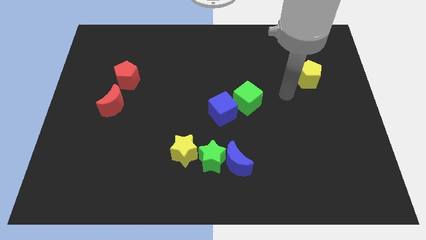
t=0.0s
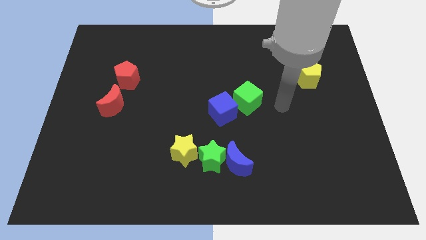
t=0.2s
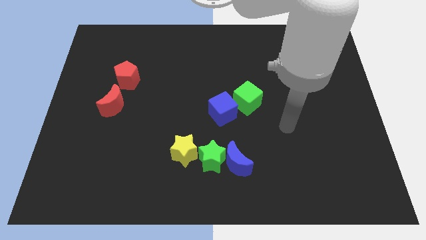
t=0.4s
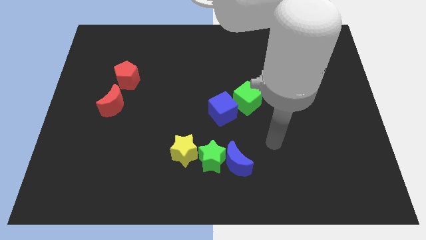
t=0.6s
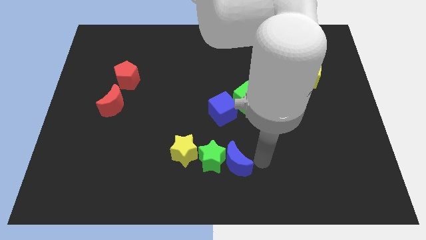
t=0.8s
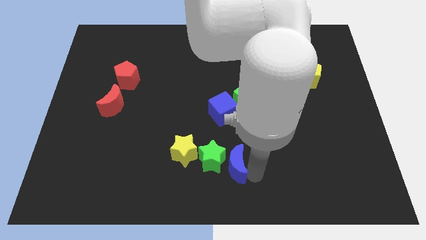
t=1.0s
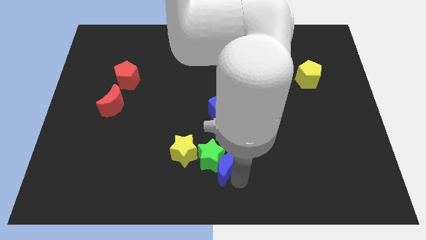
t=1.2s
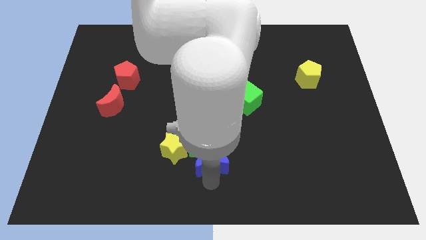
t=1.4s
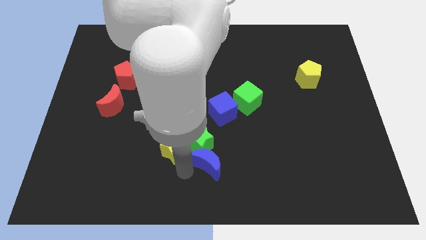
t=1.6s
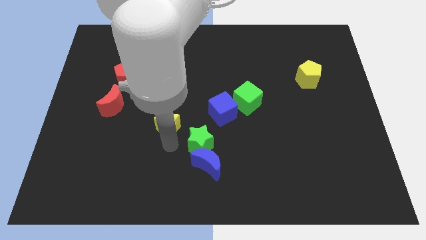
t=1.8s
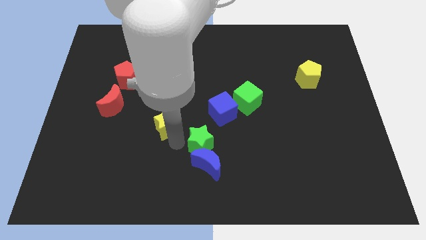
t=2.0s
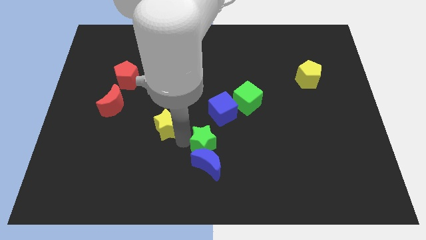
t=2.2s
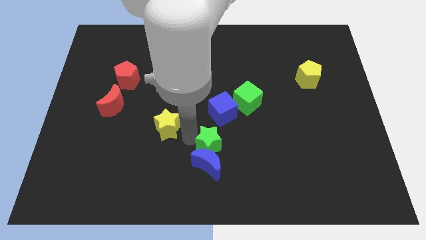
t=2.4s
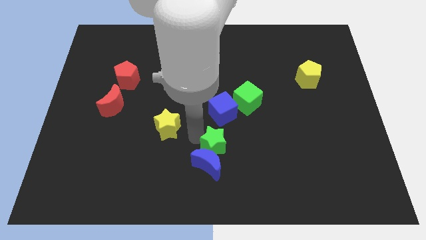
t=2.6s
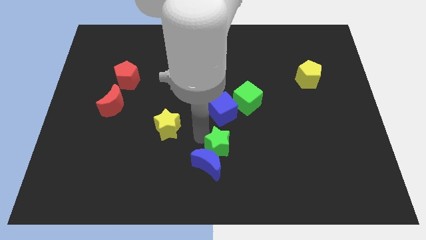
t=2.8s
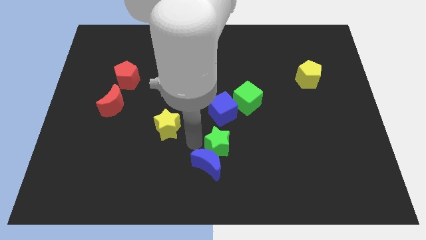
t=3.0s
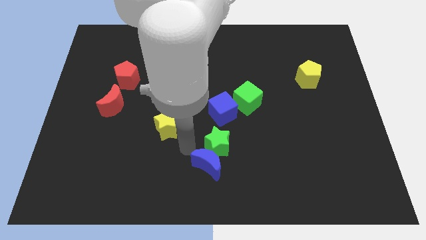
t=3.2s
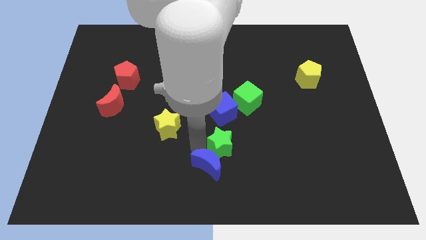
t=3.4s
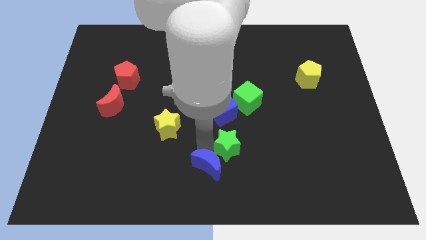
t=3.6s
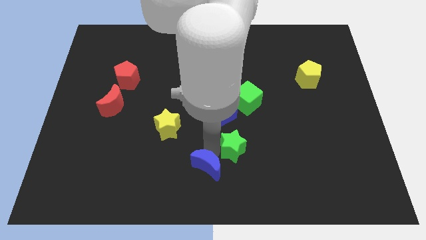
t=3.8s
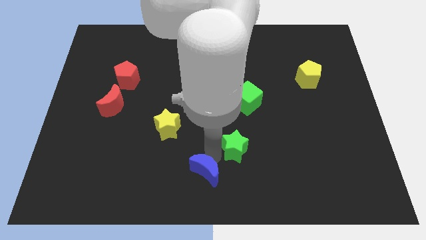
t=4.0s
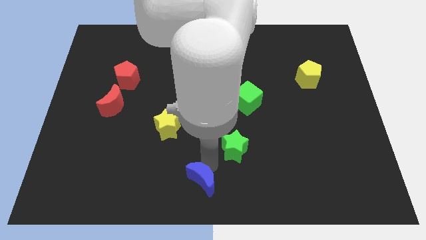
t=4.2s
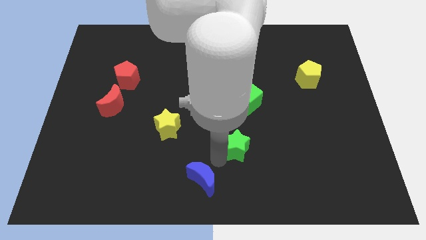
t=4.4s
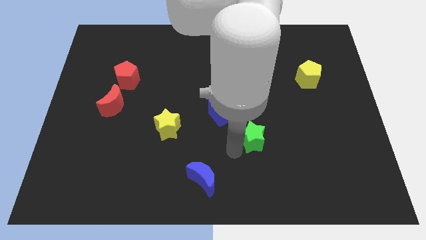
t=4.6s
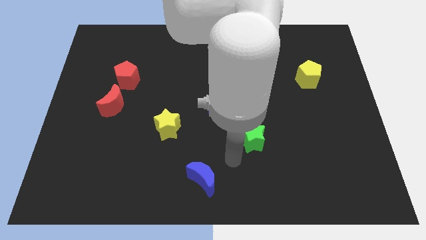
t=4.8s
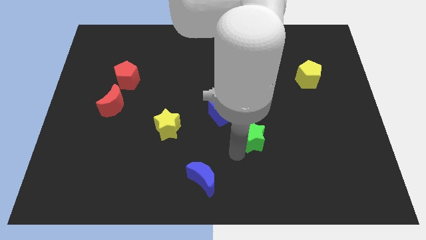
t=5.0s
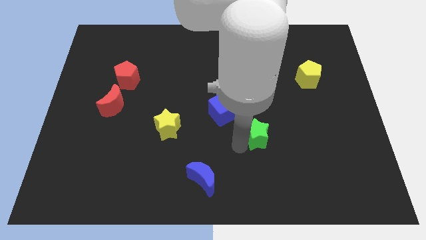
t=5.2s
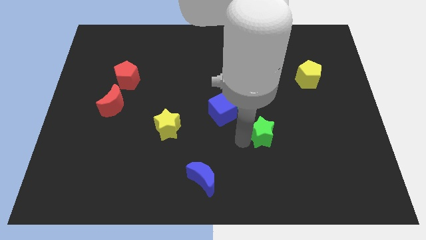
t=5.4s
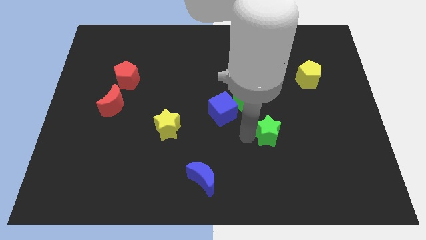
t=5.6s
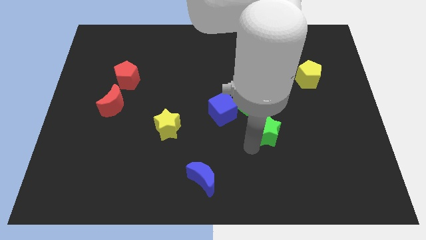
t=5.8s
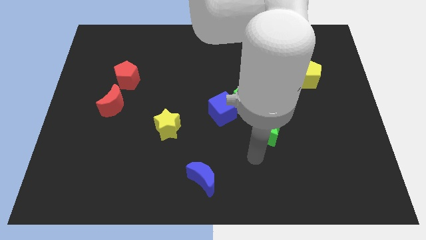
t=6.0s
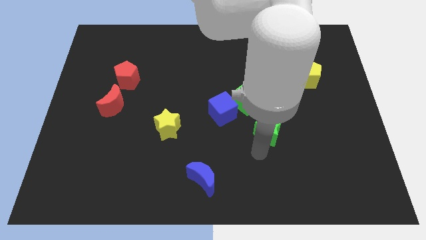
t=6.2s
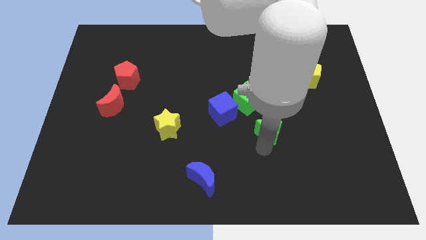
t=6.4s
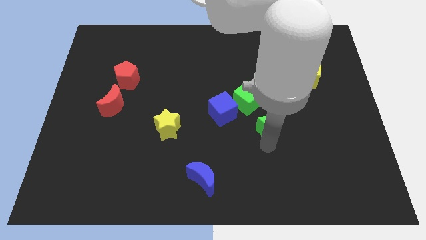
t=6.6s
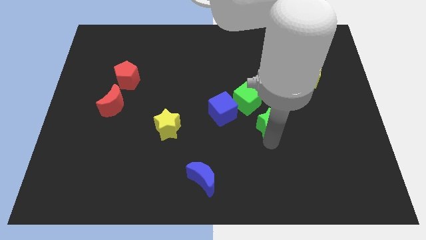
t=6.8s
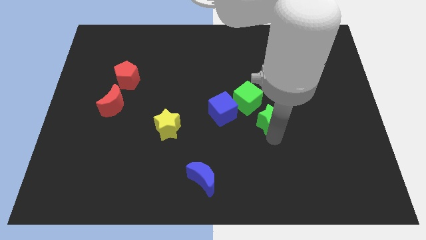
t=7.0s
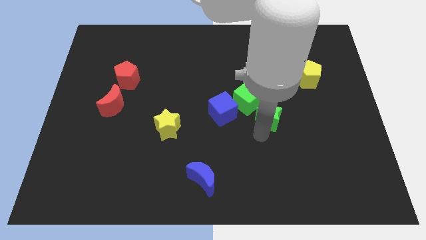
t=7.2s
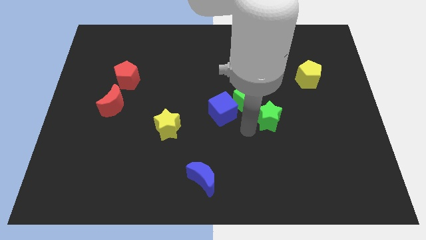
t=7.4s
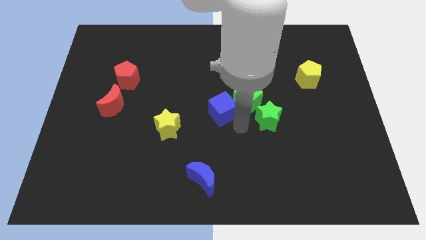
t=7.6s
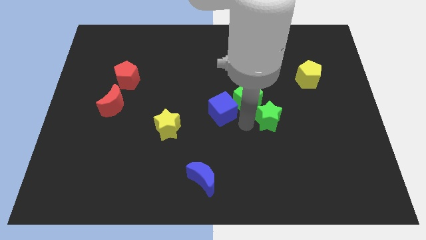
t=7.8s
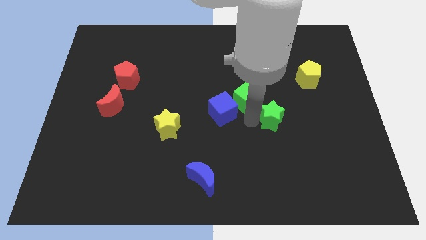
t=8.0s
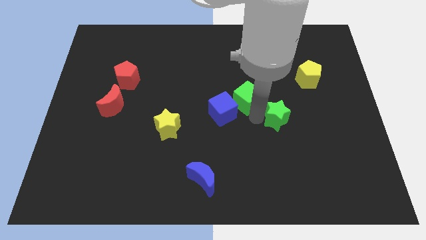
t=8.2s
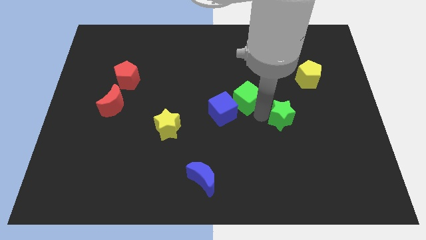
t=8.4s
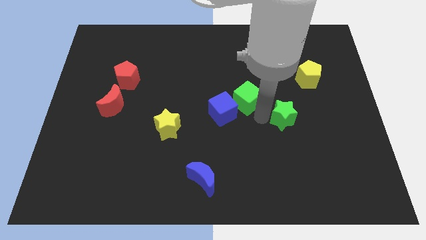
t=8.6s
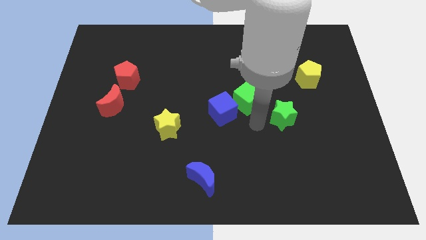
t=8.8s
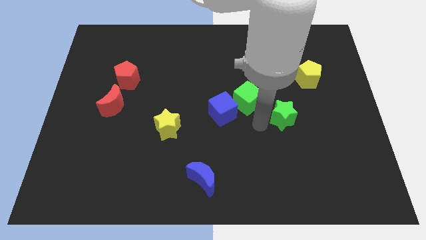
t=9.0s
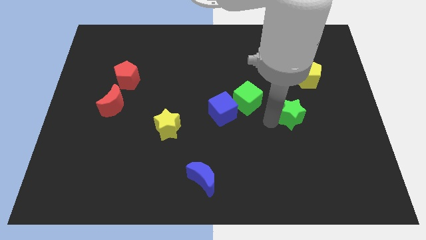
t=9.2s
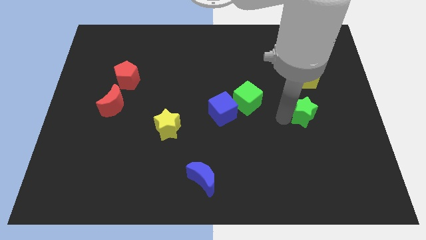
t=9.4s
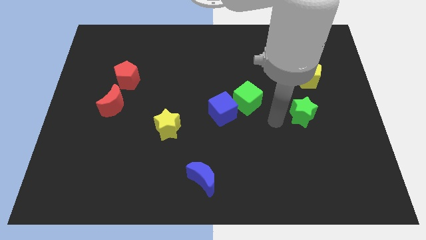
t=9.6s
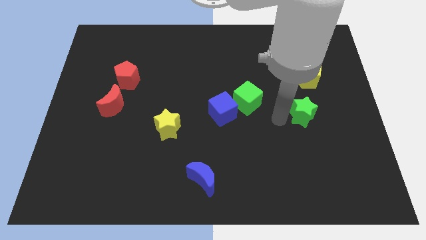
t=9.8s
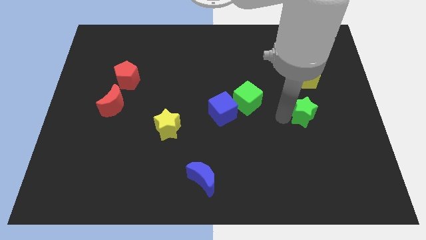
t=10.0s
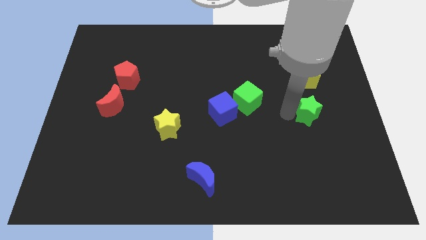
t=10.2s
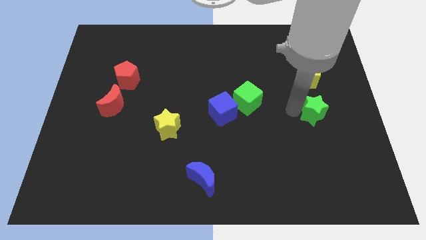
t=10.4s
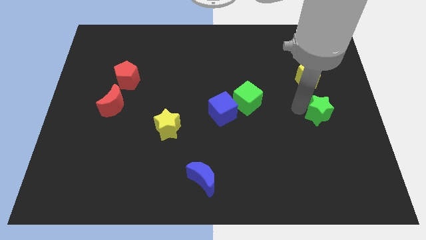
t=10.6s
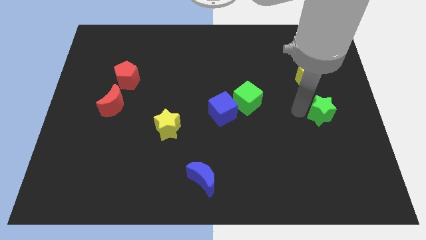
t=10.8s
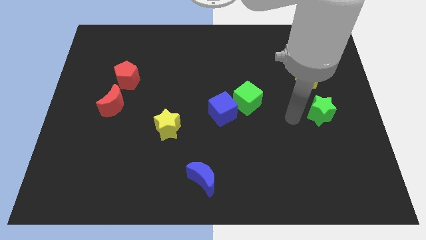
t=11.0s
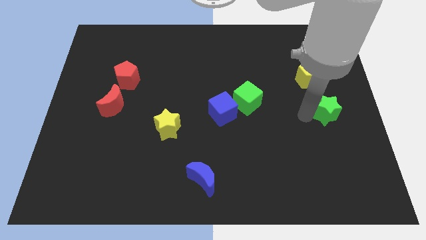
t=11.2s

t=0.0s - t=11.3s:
slide the green star to the right side of the board

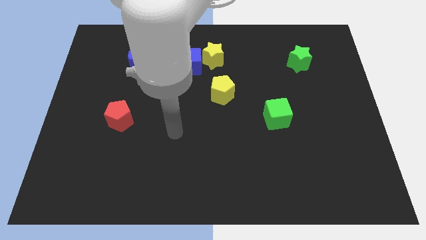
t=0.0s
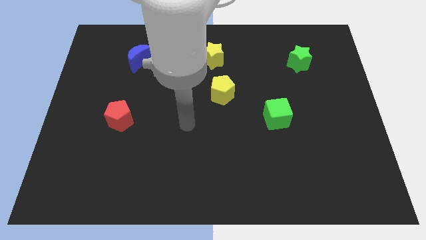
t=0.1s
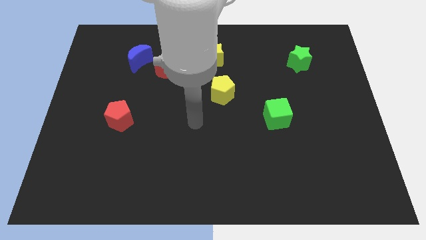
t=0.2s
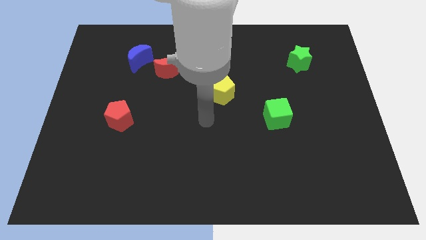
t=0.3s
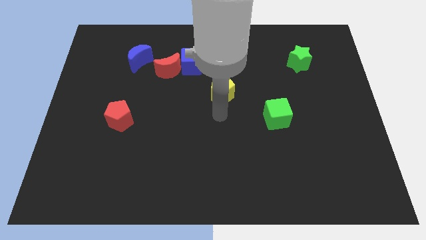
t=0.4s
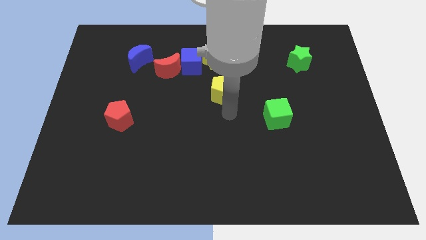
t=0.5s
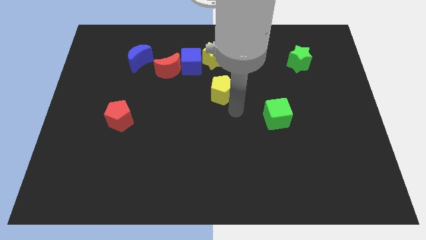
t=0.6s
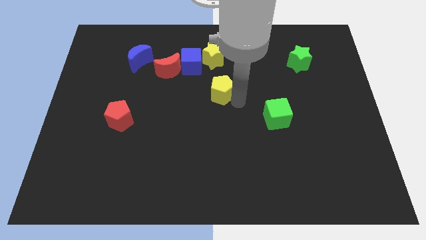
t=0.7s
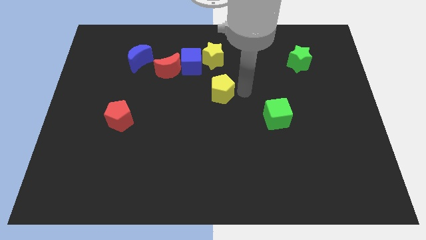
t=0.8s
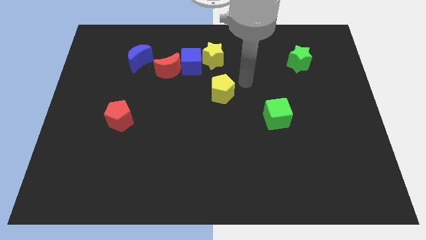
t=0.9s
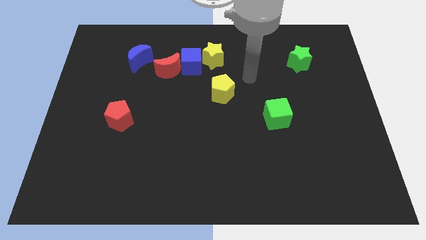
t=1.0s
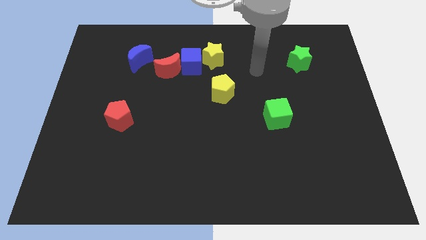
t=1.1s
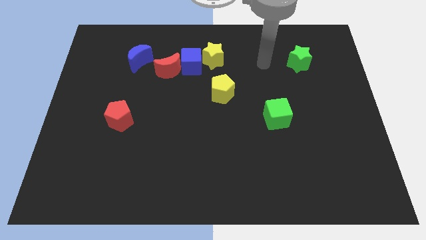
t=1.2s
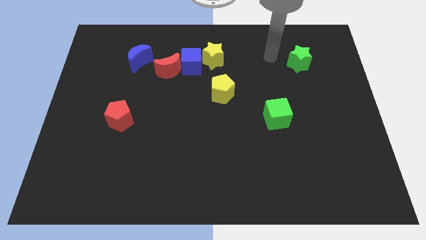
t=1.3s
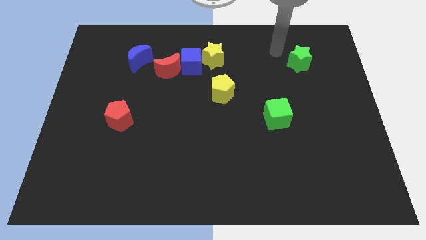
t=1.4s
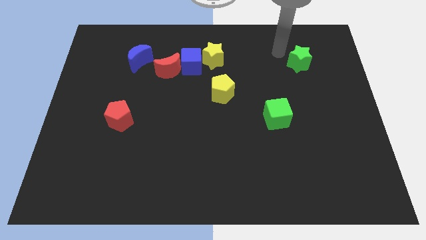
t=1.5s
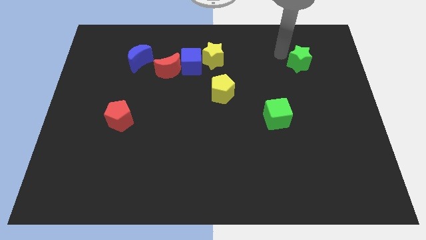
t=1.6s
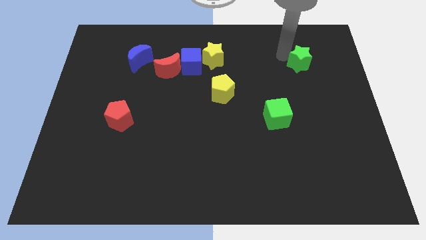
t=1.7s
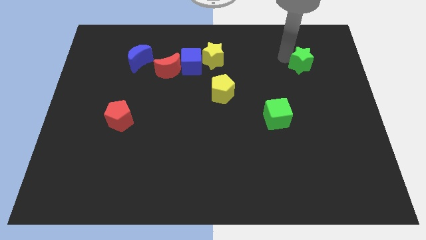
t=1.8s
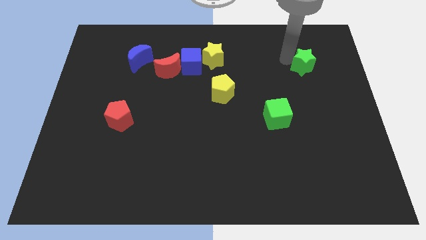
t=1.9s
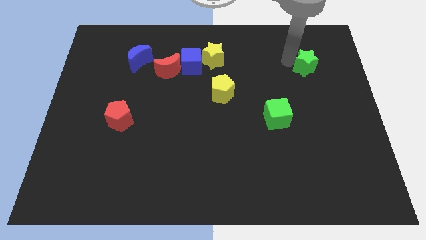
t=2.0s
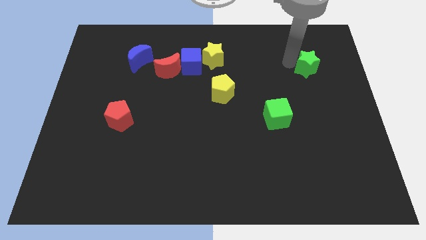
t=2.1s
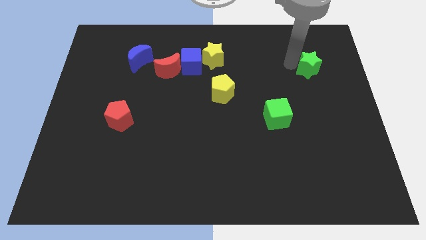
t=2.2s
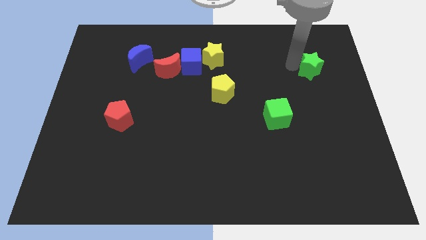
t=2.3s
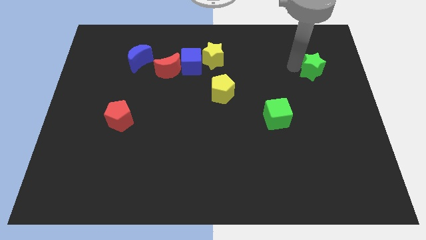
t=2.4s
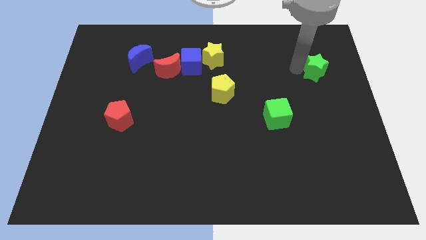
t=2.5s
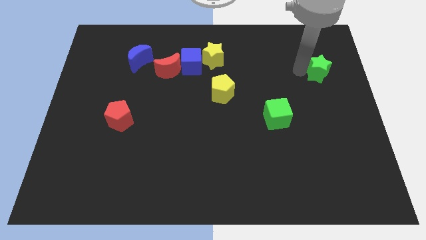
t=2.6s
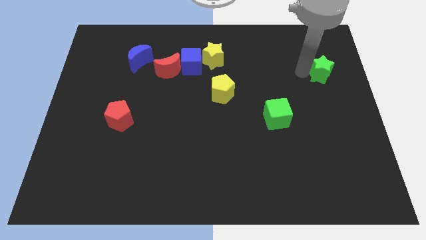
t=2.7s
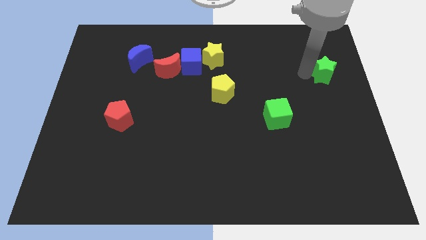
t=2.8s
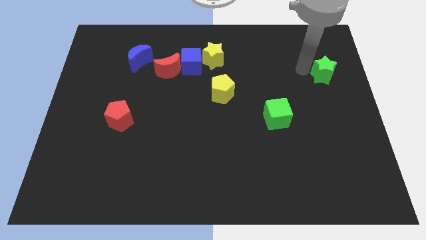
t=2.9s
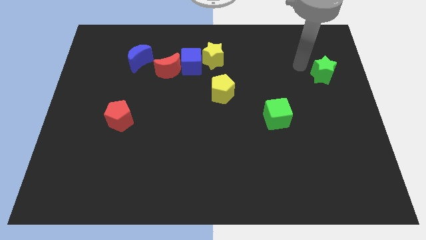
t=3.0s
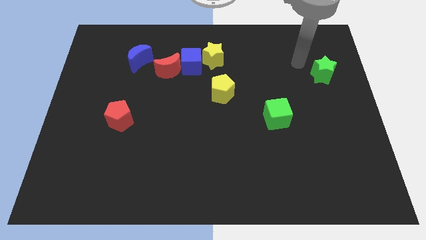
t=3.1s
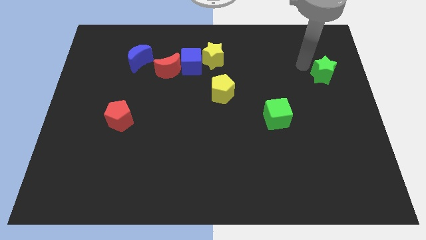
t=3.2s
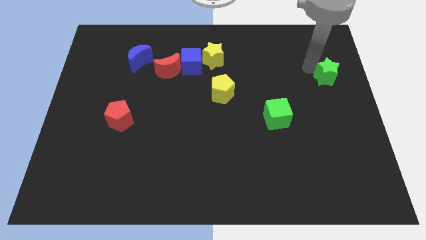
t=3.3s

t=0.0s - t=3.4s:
slide the green star to the right side
